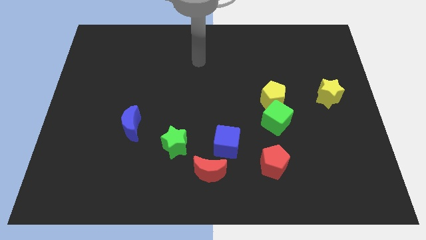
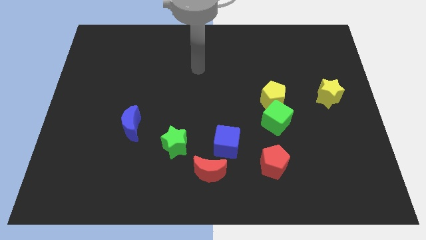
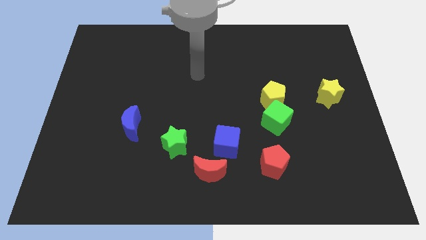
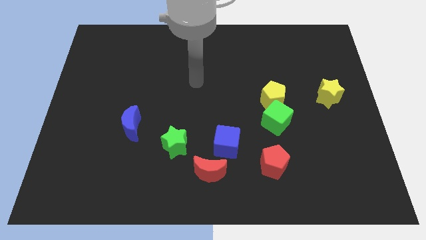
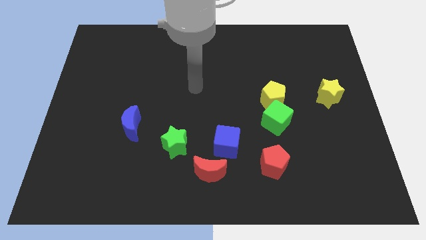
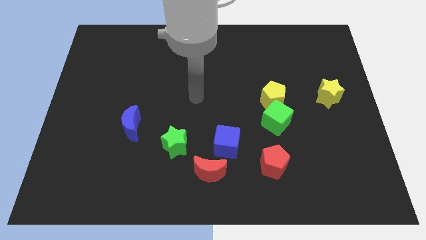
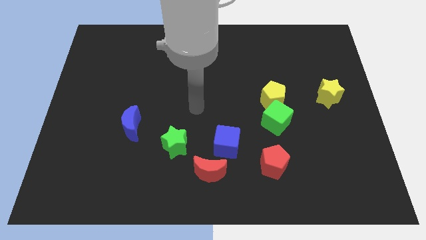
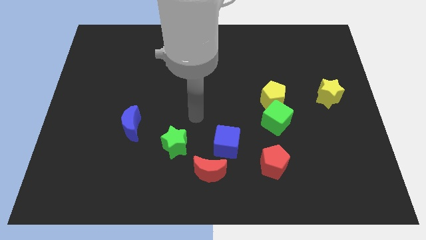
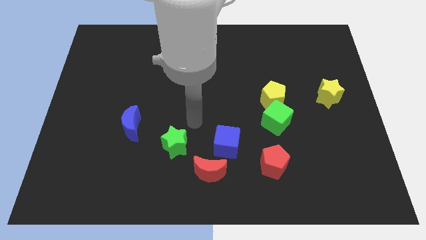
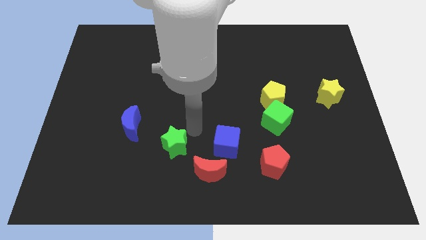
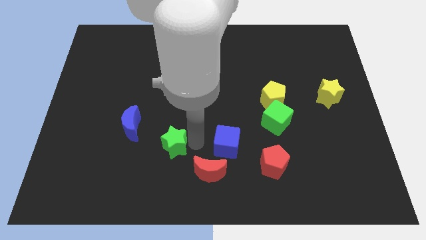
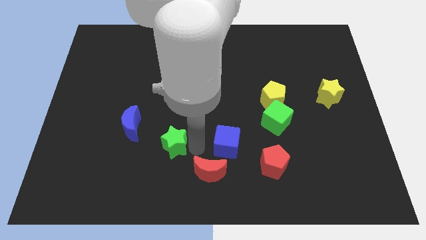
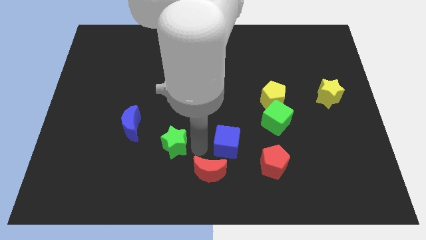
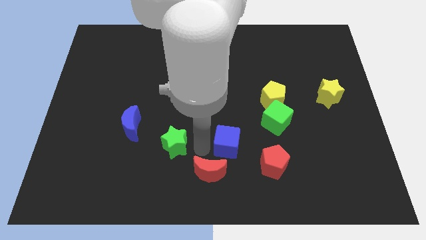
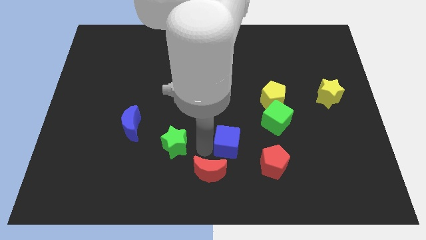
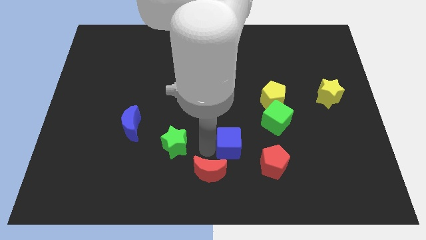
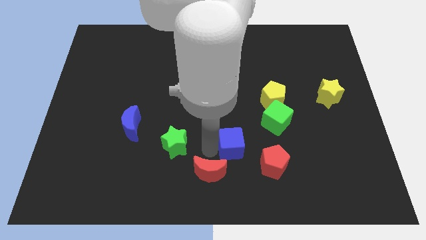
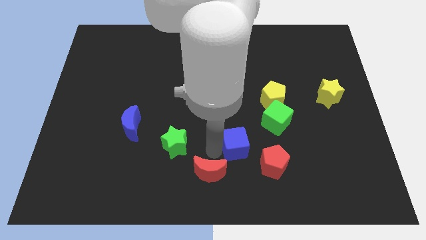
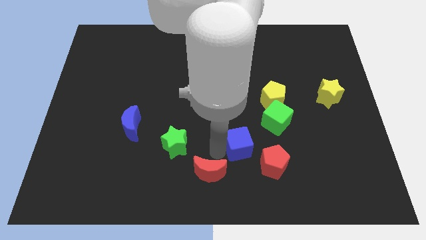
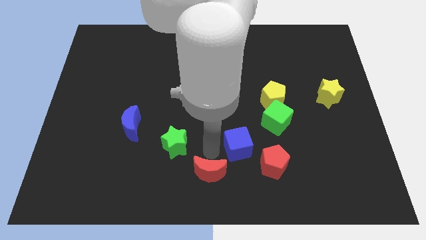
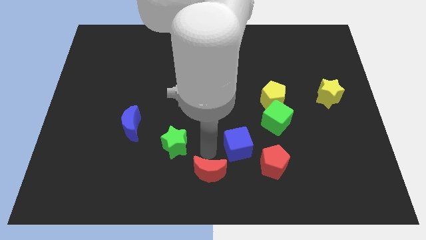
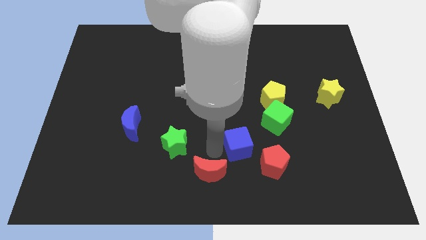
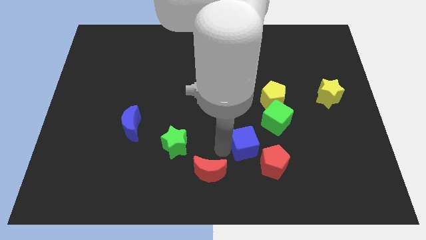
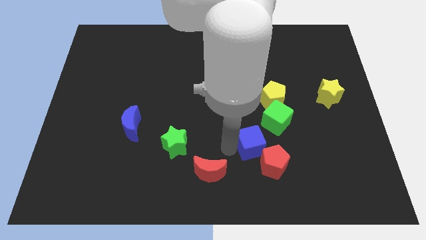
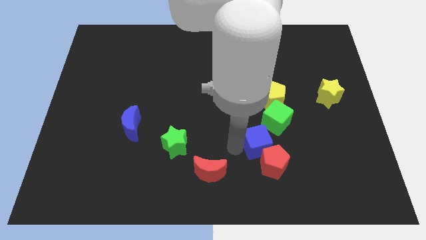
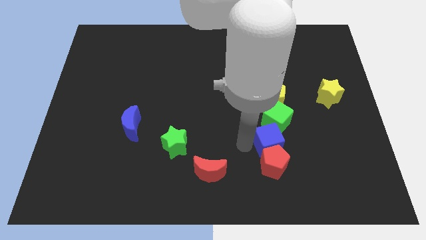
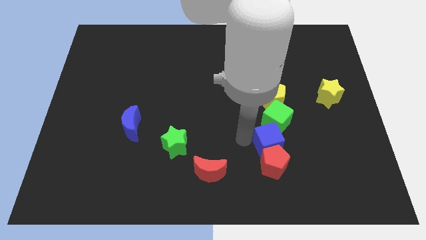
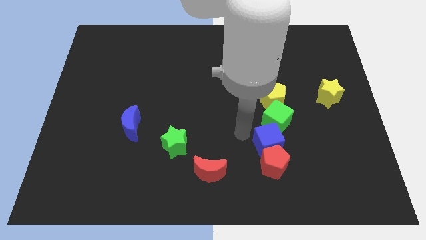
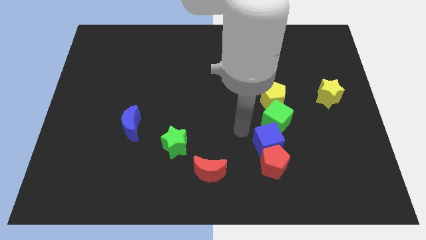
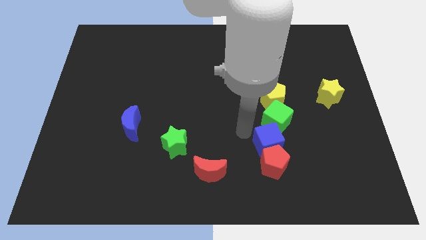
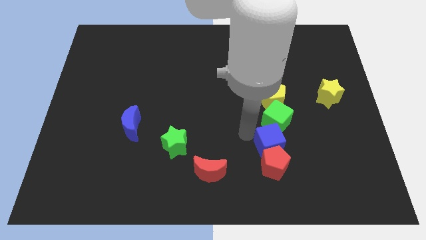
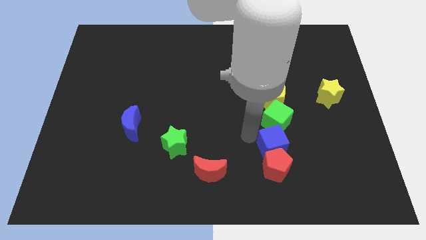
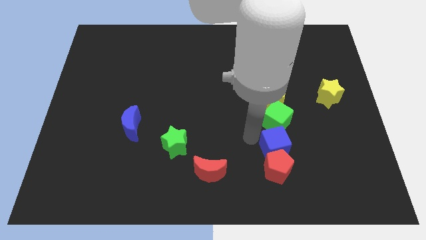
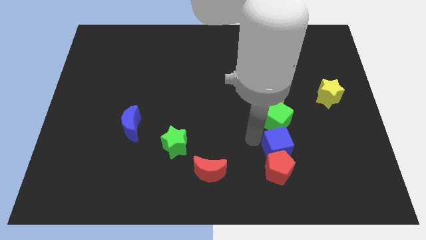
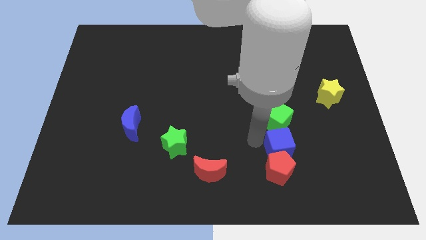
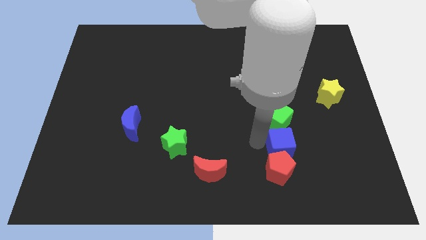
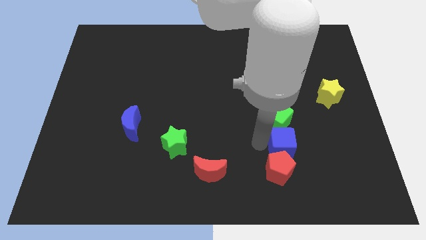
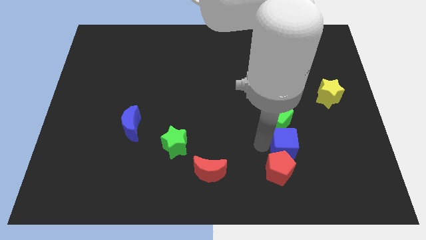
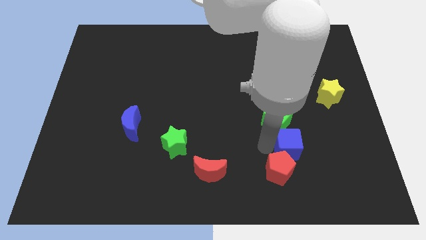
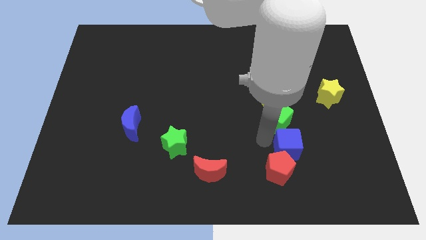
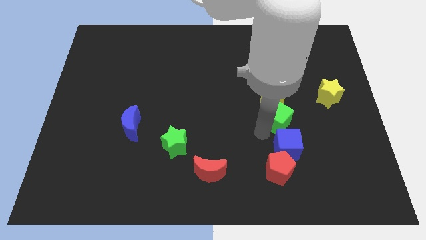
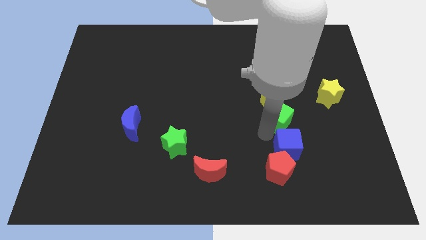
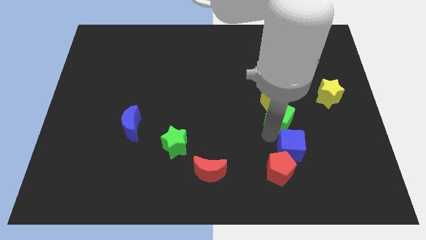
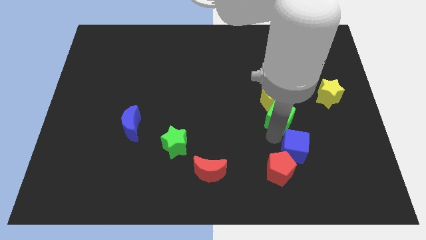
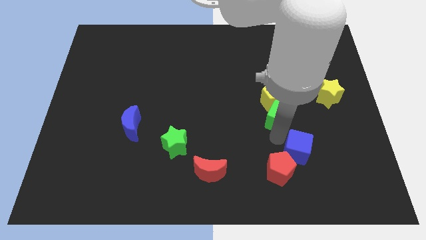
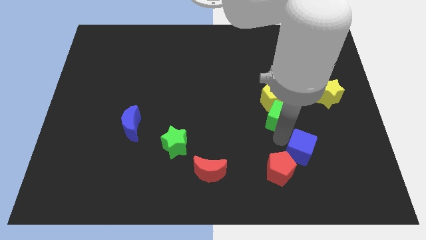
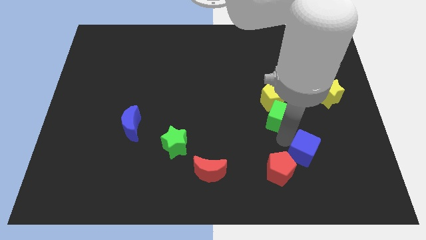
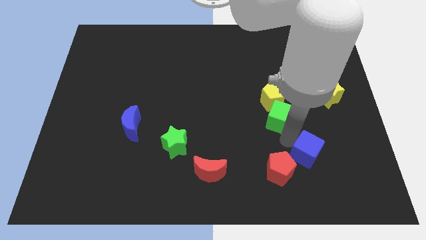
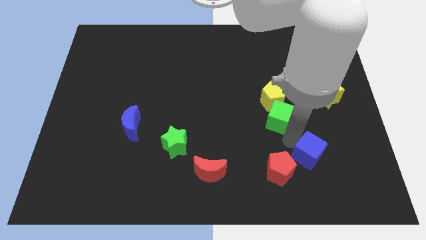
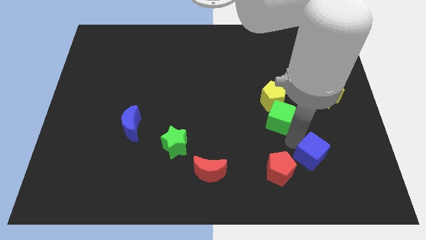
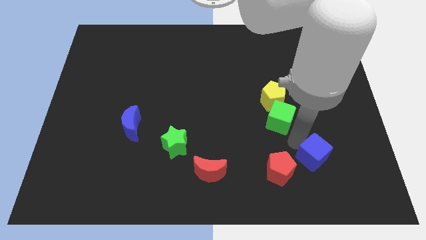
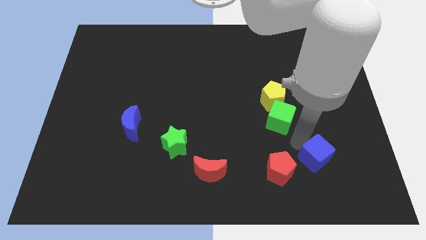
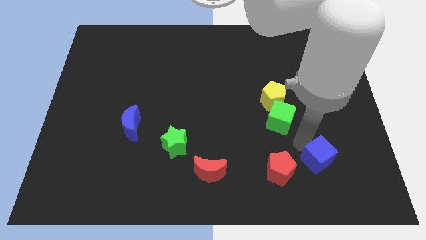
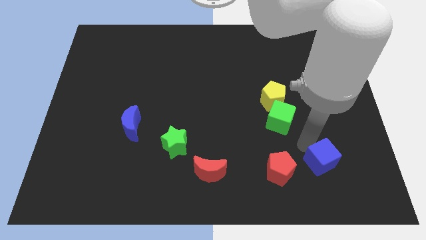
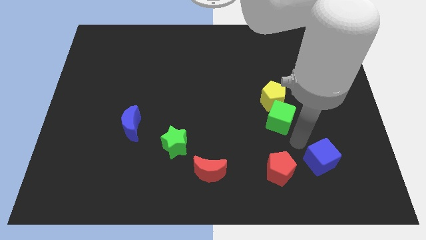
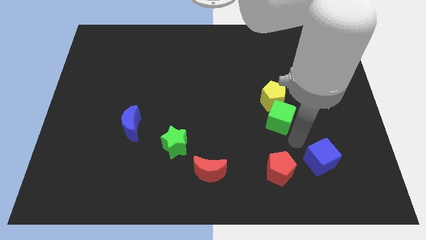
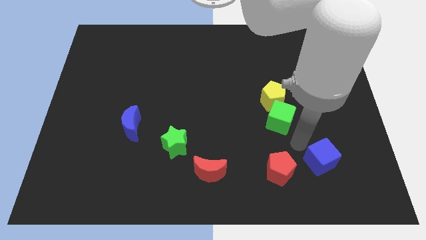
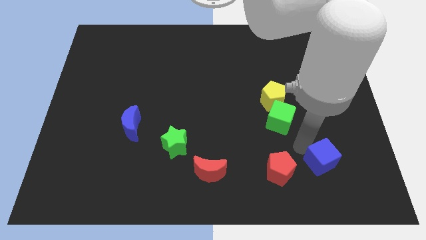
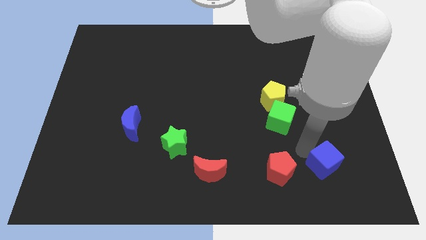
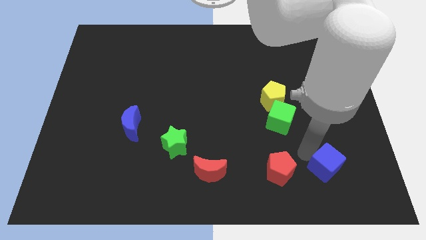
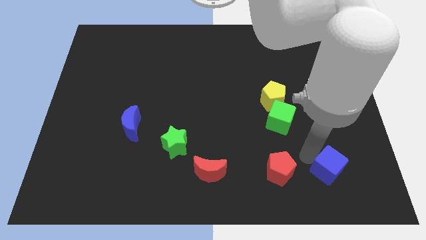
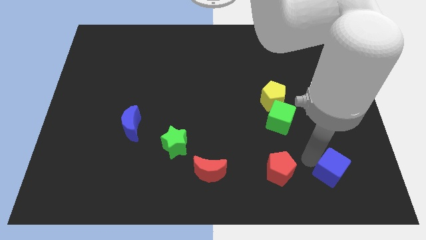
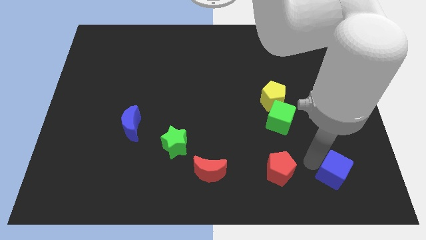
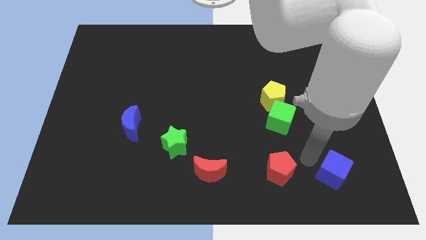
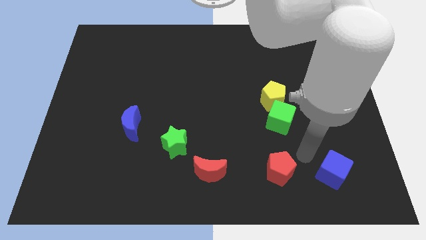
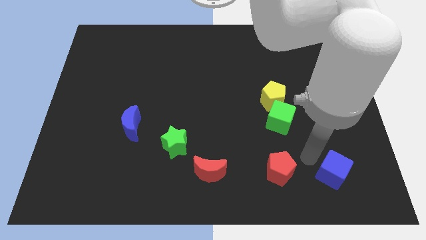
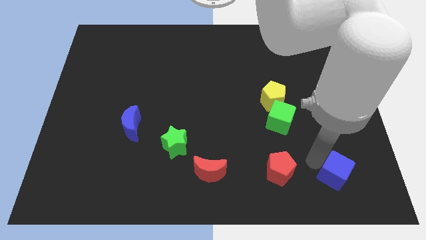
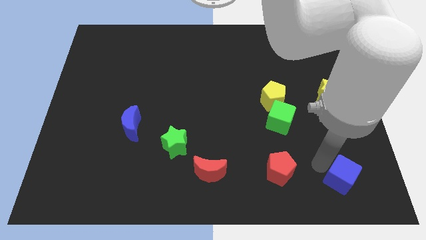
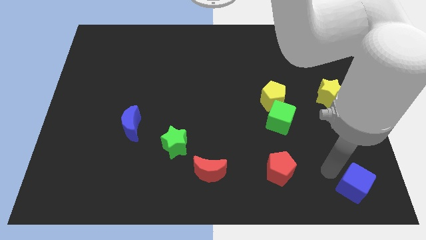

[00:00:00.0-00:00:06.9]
slide the blue cube to the lower right corner

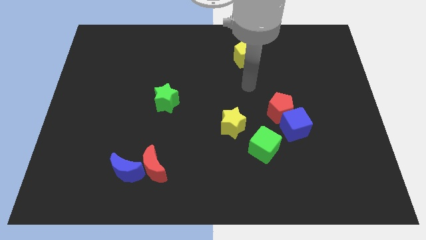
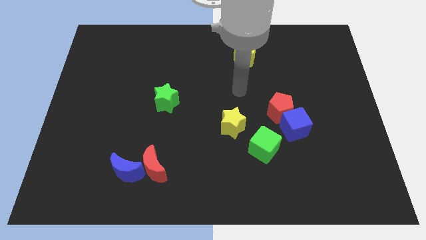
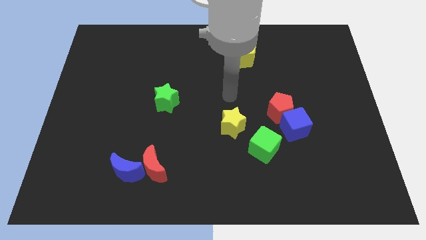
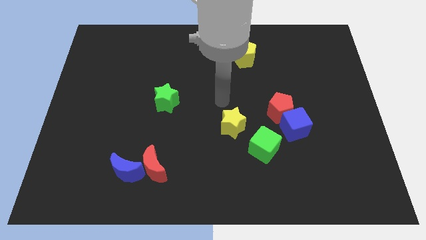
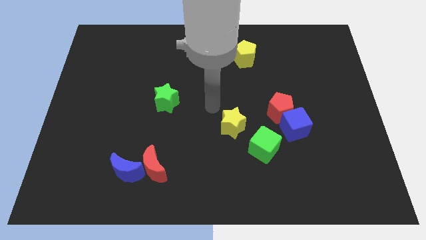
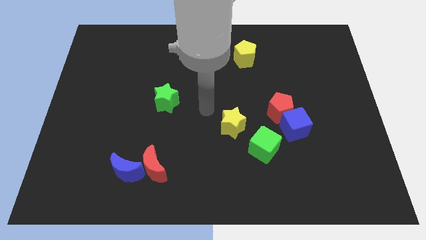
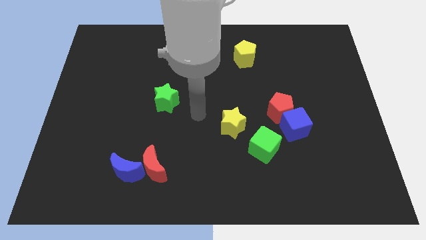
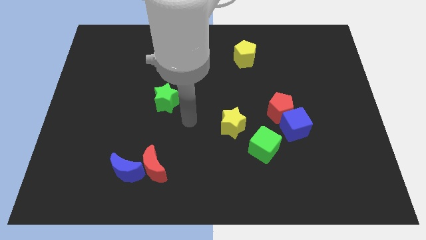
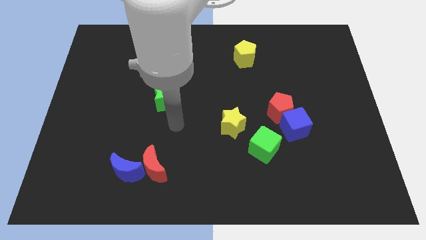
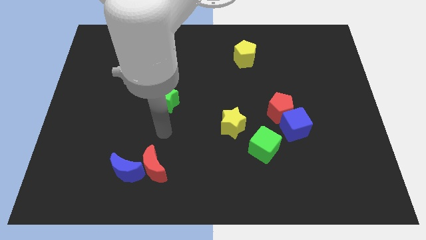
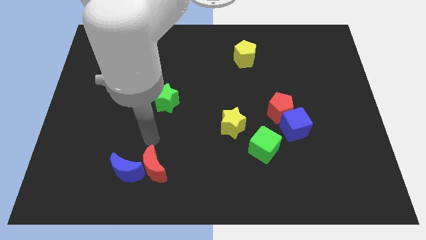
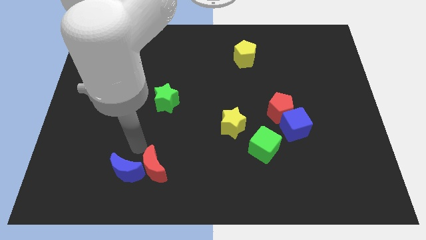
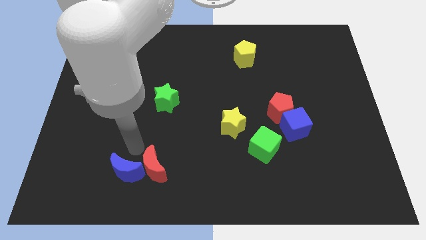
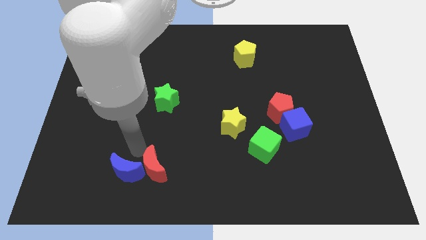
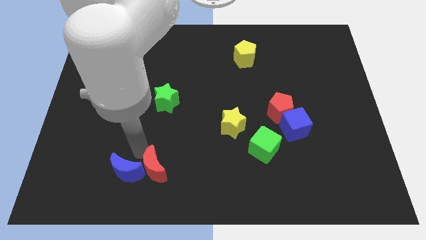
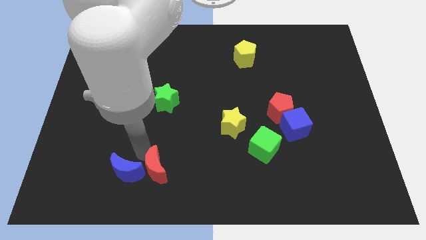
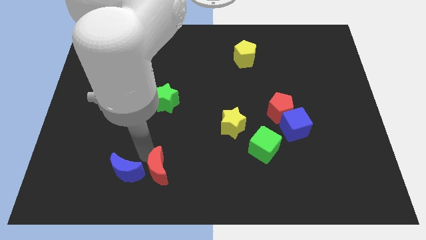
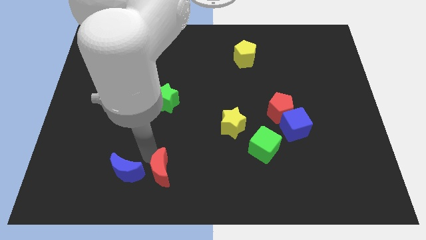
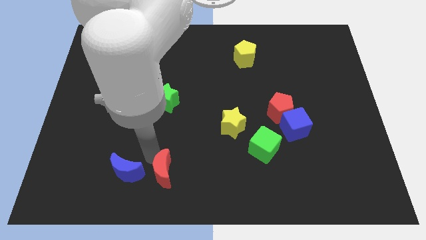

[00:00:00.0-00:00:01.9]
move the red moon to the bottom
